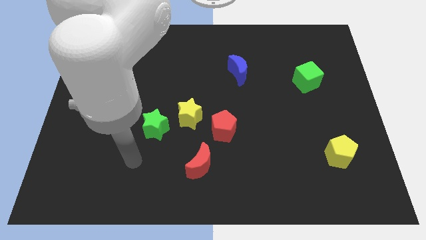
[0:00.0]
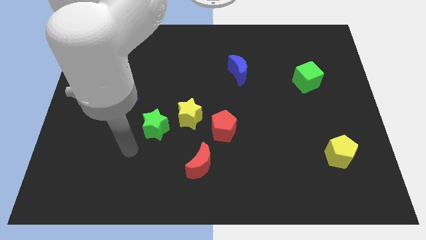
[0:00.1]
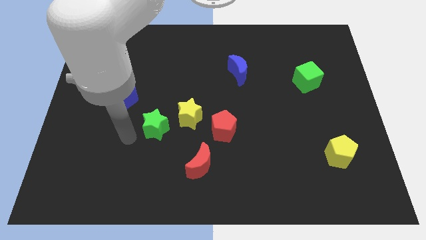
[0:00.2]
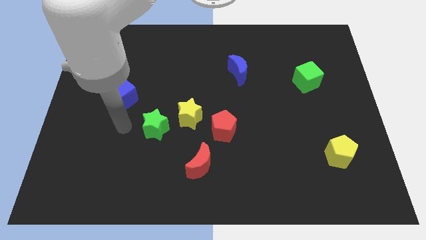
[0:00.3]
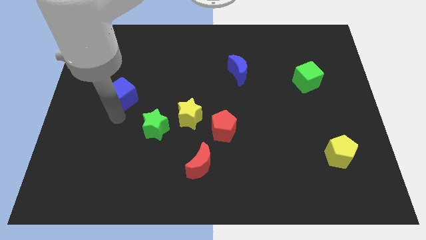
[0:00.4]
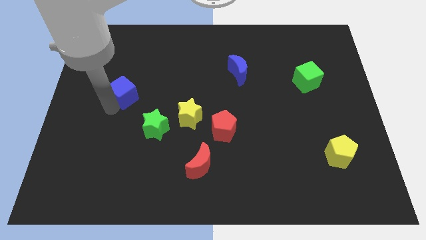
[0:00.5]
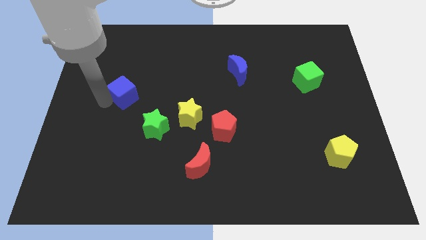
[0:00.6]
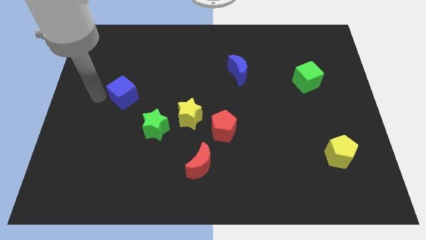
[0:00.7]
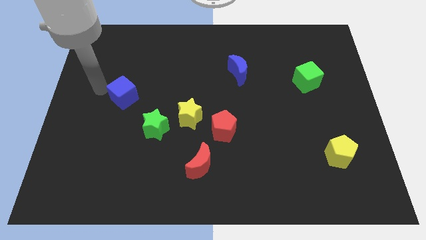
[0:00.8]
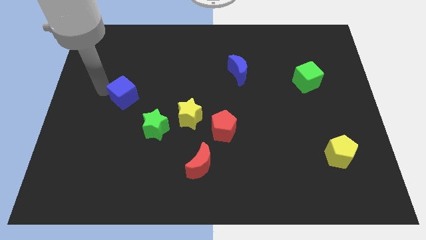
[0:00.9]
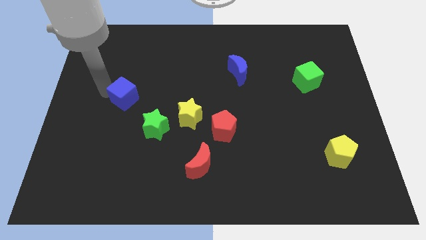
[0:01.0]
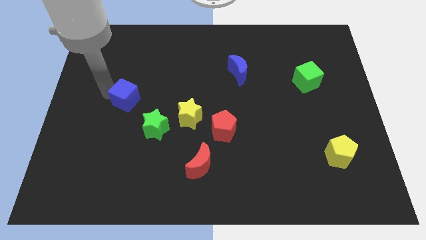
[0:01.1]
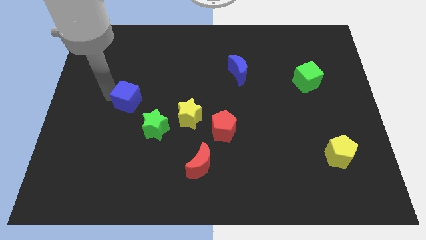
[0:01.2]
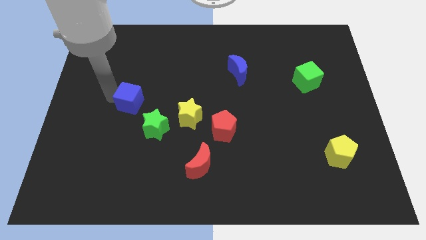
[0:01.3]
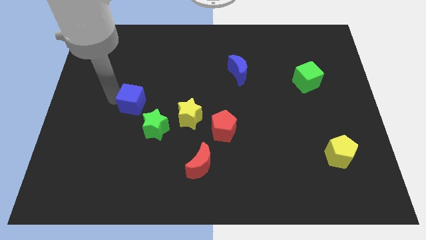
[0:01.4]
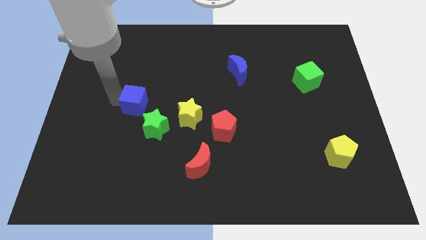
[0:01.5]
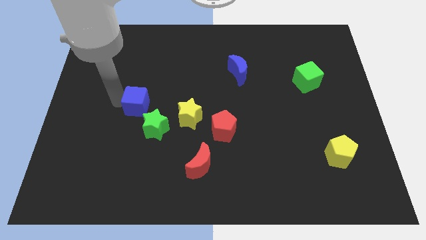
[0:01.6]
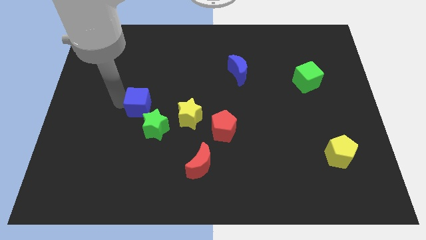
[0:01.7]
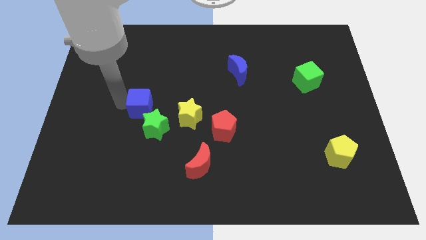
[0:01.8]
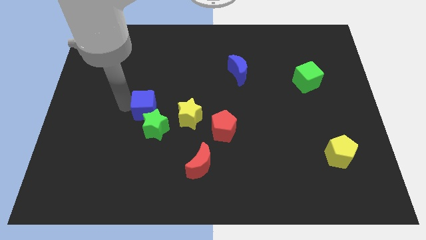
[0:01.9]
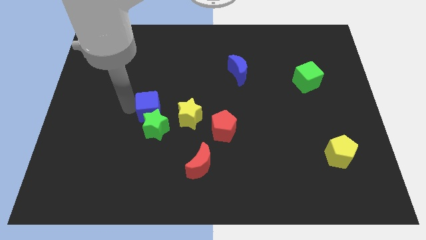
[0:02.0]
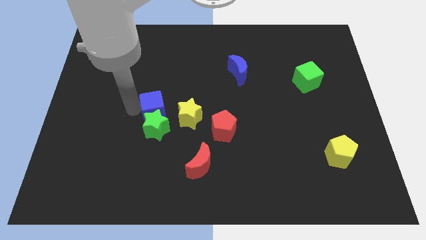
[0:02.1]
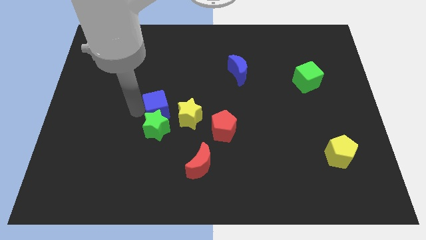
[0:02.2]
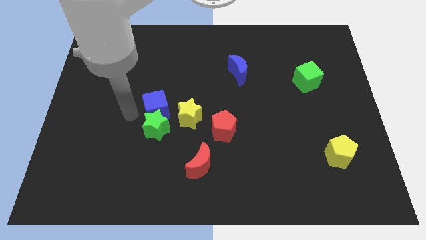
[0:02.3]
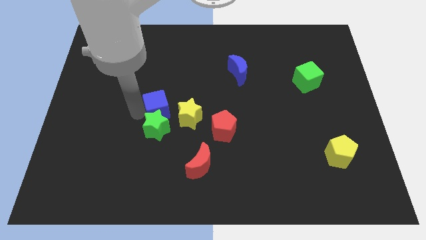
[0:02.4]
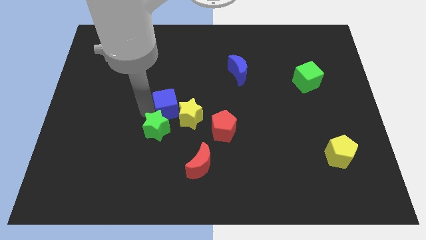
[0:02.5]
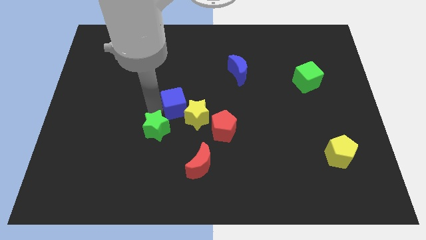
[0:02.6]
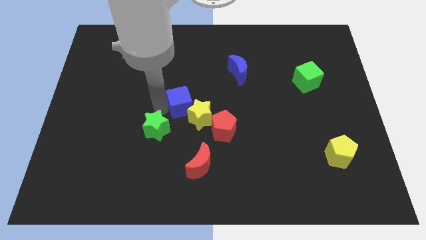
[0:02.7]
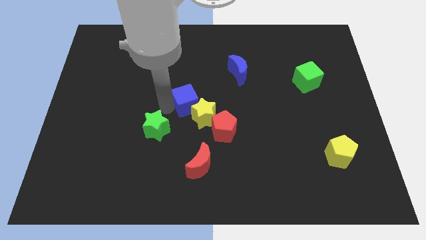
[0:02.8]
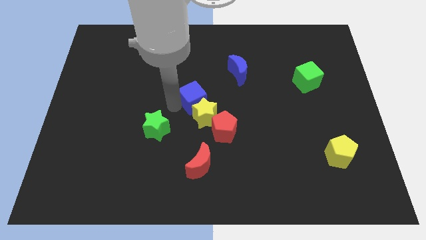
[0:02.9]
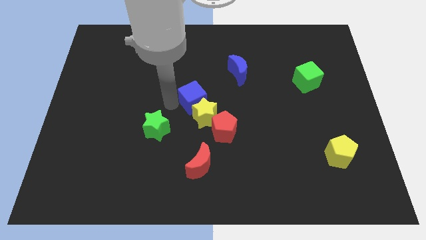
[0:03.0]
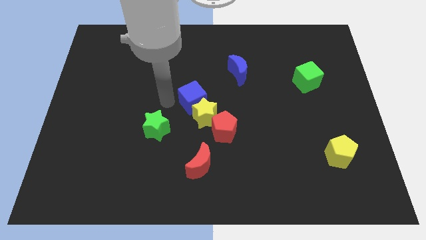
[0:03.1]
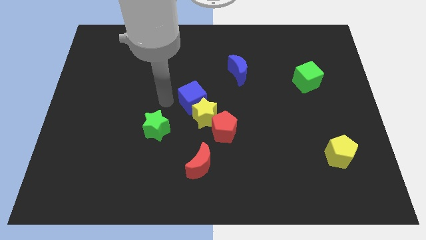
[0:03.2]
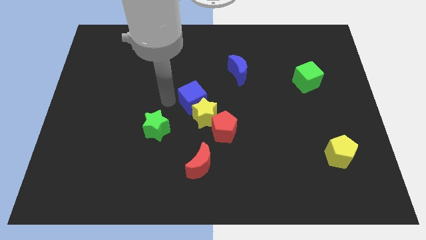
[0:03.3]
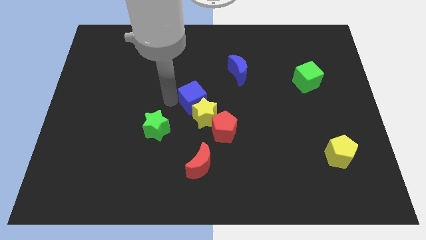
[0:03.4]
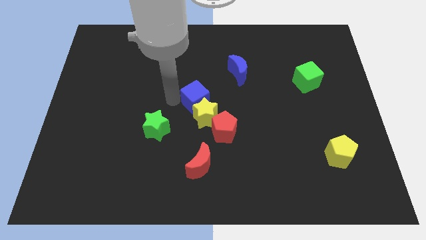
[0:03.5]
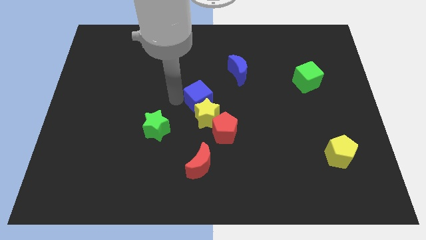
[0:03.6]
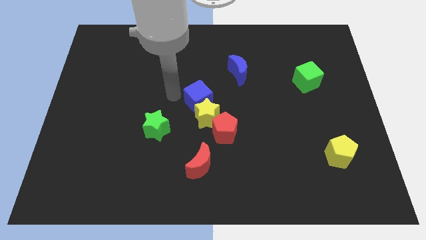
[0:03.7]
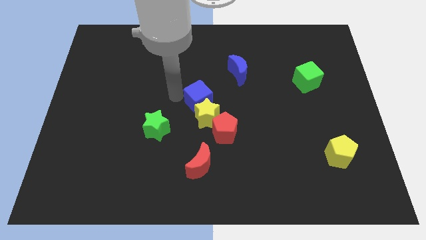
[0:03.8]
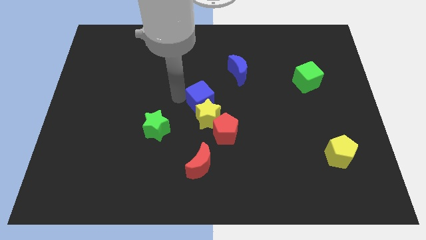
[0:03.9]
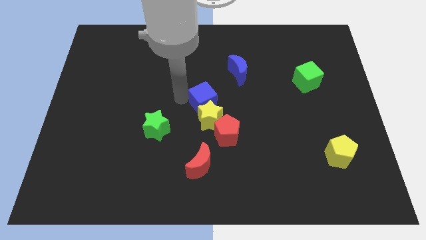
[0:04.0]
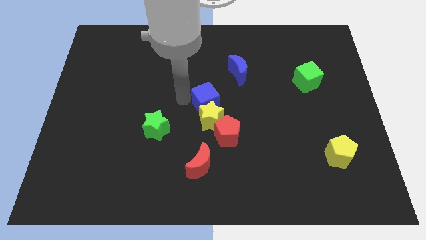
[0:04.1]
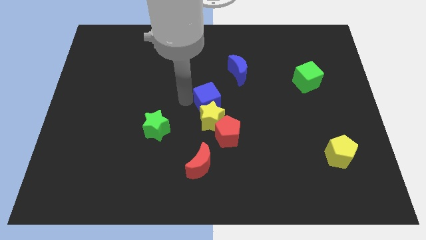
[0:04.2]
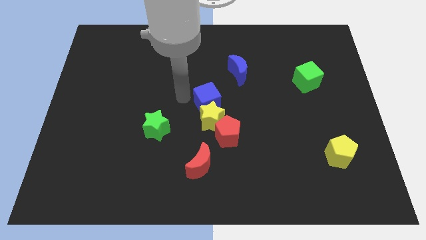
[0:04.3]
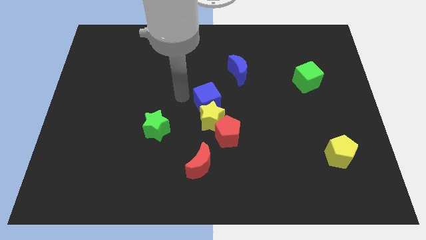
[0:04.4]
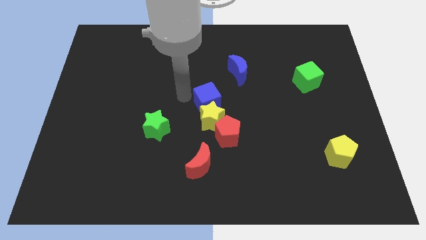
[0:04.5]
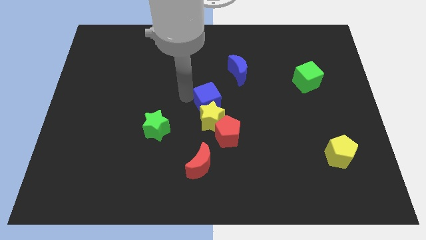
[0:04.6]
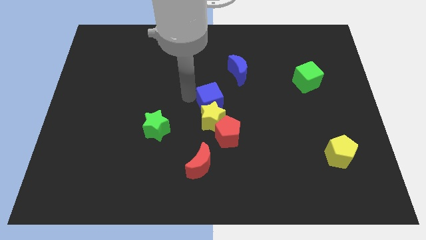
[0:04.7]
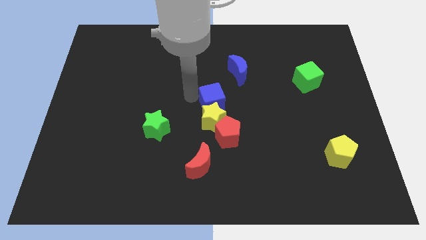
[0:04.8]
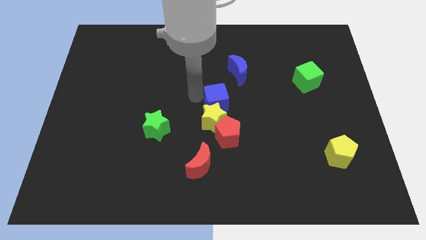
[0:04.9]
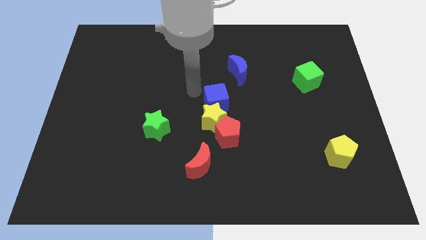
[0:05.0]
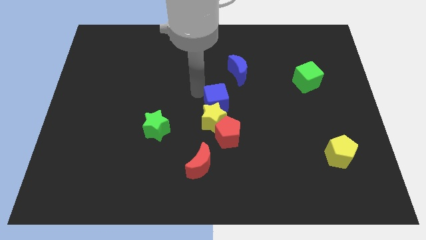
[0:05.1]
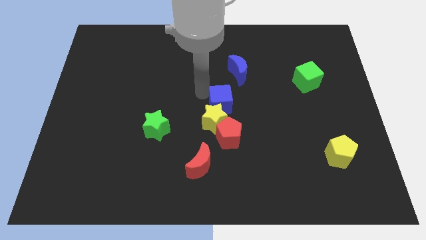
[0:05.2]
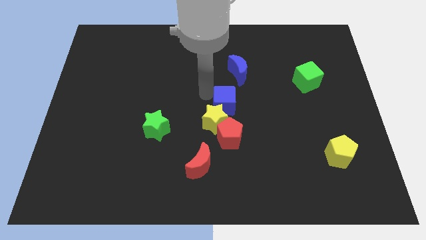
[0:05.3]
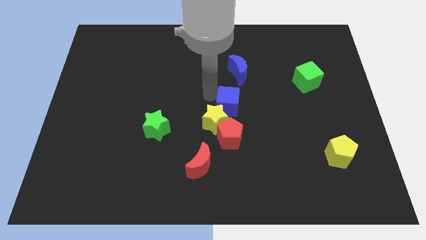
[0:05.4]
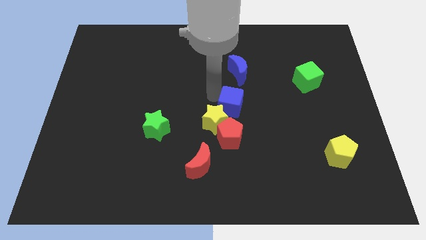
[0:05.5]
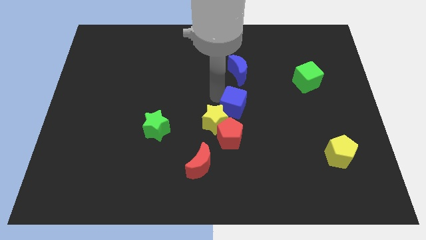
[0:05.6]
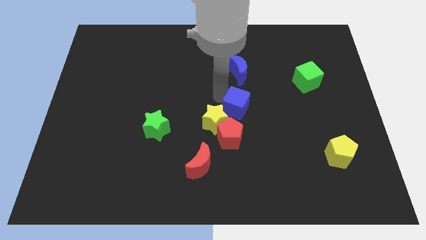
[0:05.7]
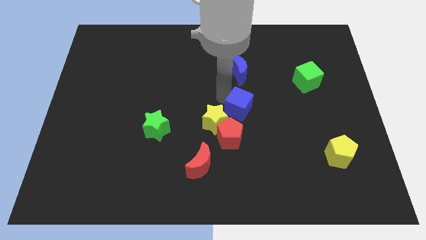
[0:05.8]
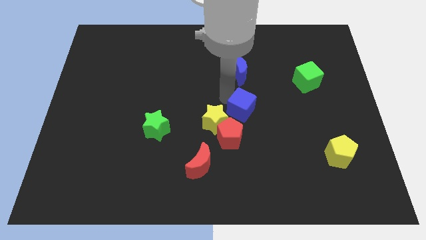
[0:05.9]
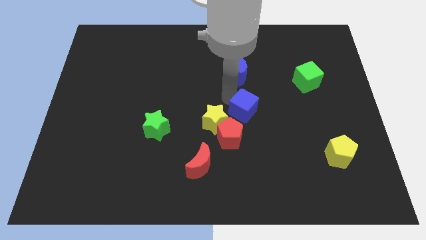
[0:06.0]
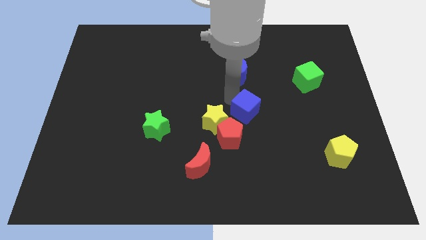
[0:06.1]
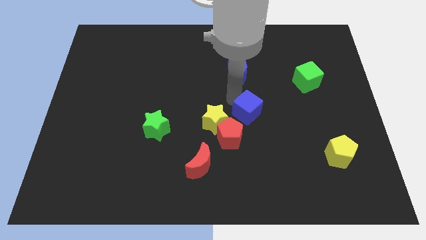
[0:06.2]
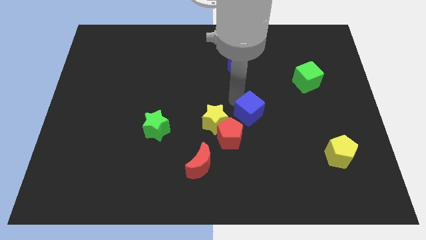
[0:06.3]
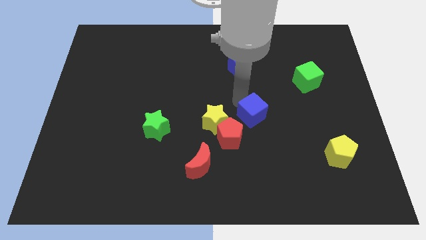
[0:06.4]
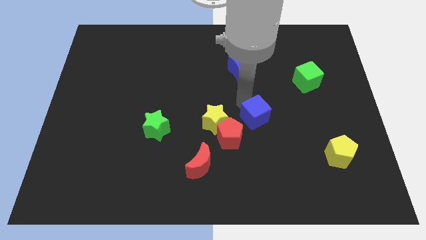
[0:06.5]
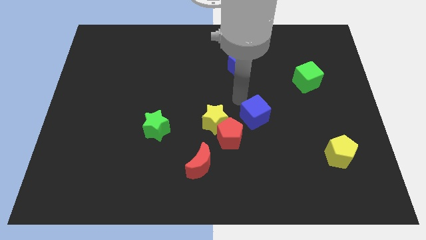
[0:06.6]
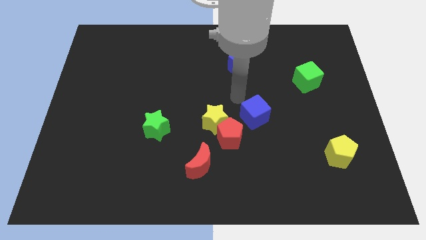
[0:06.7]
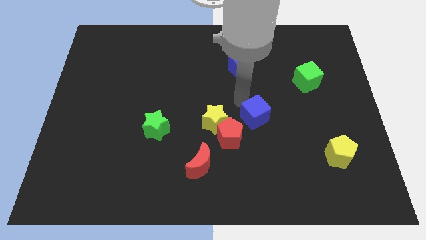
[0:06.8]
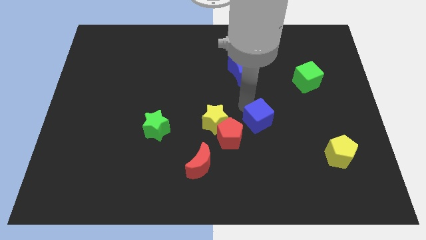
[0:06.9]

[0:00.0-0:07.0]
move the blue cube right of the red pentagon
